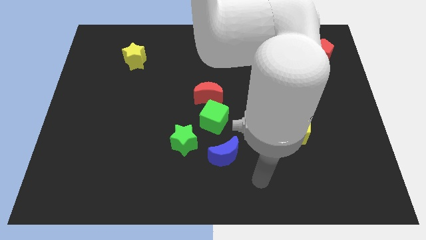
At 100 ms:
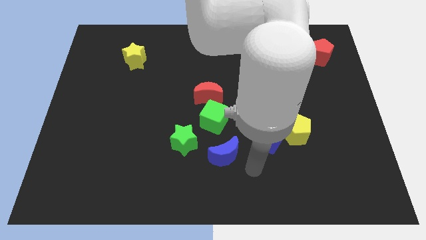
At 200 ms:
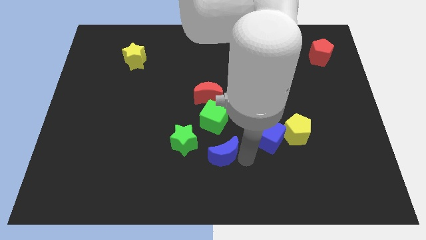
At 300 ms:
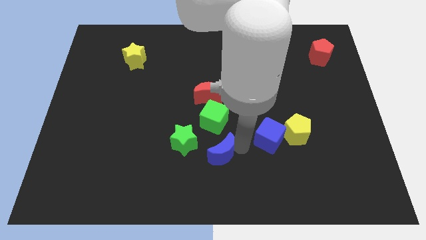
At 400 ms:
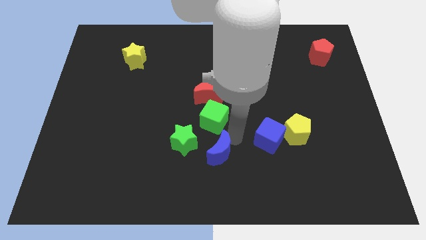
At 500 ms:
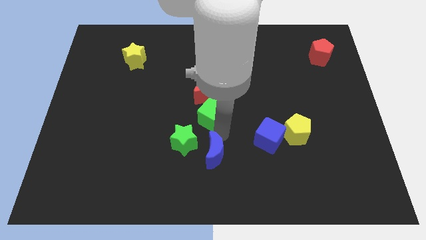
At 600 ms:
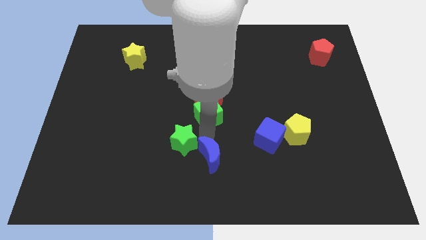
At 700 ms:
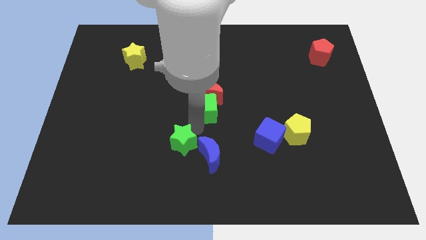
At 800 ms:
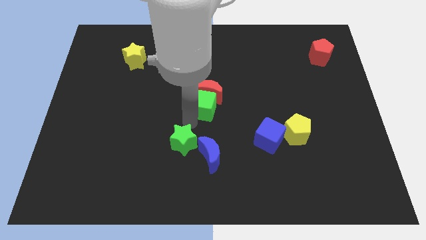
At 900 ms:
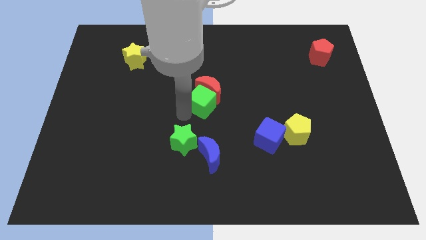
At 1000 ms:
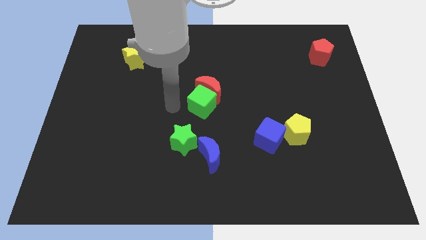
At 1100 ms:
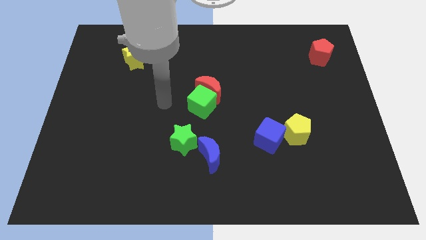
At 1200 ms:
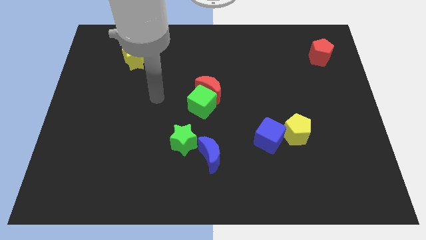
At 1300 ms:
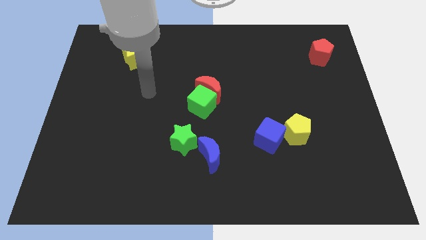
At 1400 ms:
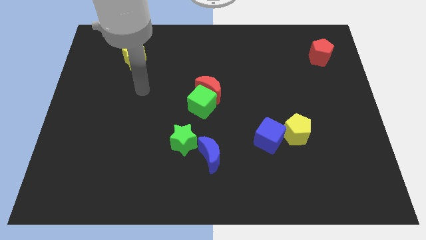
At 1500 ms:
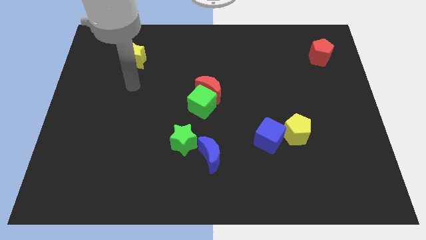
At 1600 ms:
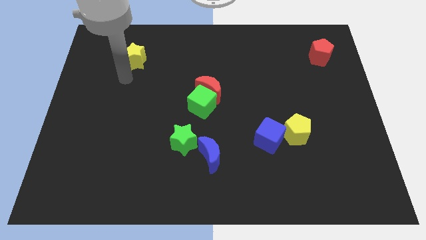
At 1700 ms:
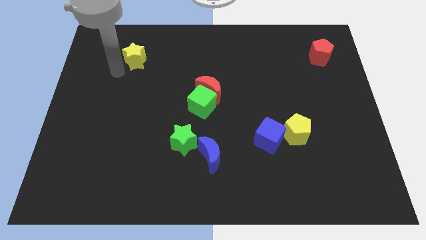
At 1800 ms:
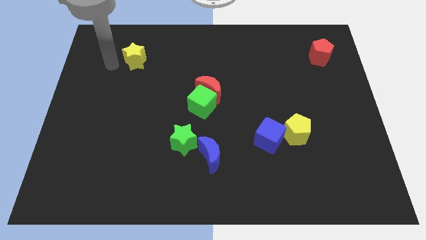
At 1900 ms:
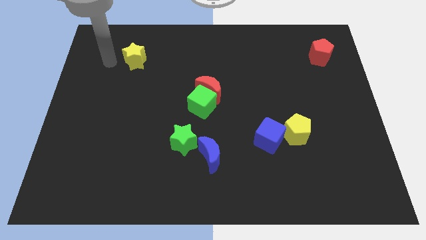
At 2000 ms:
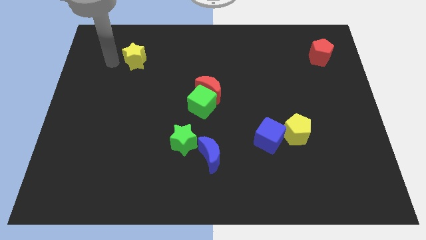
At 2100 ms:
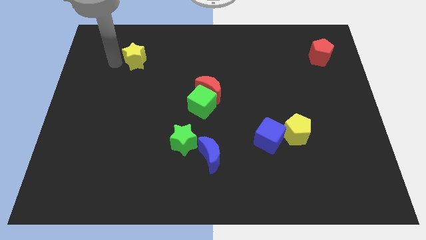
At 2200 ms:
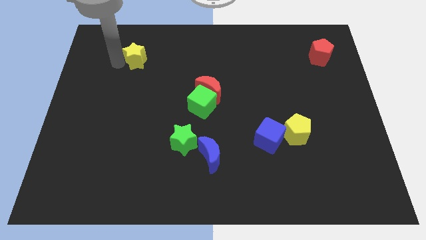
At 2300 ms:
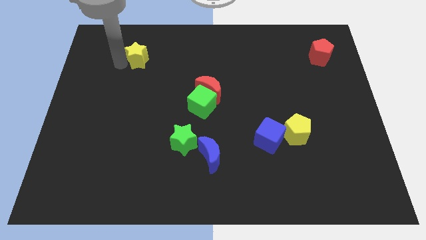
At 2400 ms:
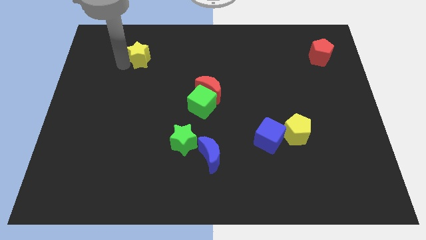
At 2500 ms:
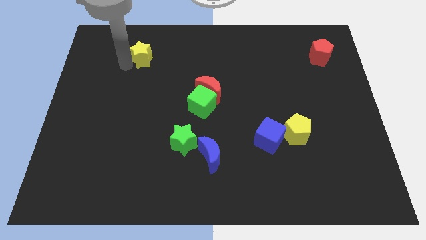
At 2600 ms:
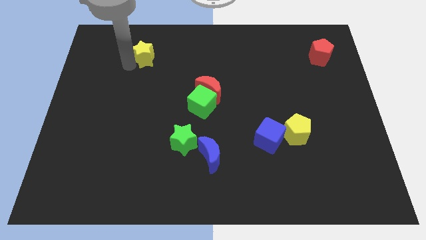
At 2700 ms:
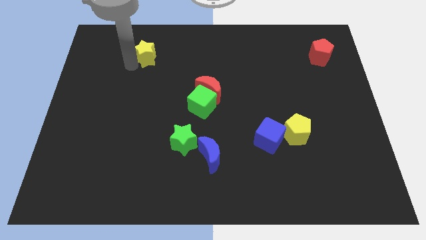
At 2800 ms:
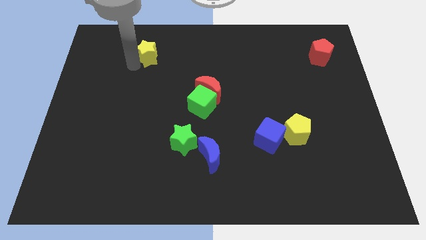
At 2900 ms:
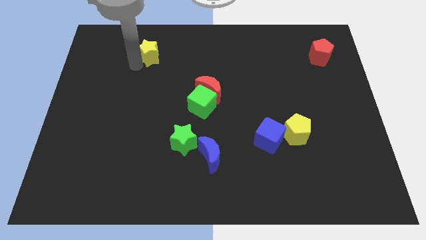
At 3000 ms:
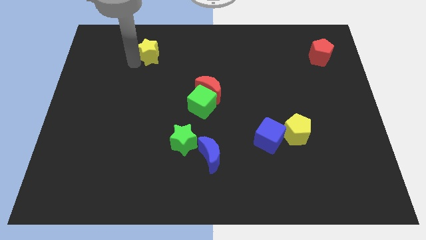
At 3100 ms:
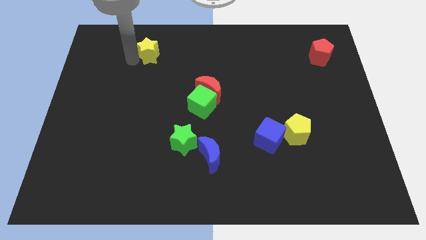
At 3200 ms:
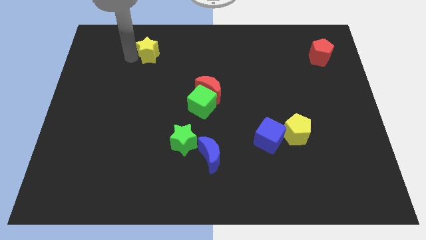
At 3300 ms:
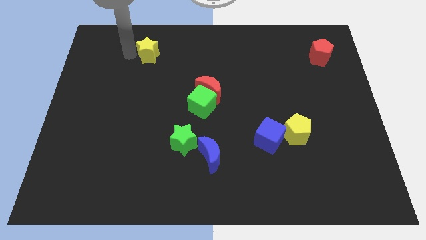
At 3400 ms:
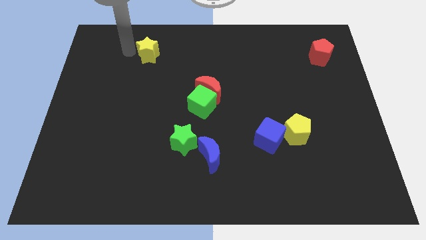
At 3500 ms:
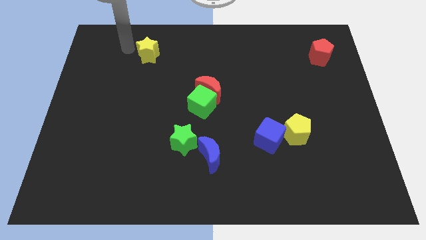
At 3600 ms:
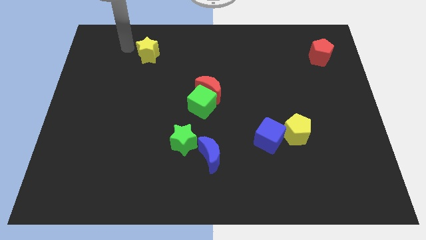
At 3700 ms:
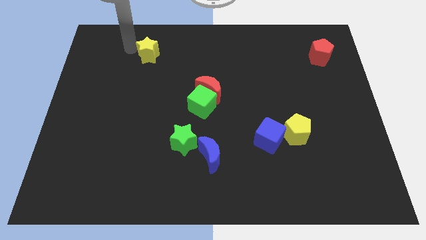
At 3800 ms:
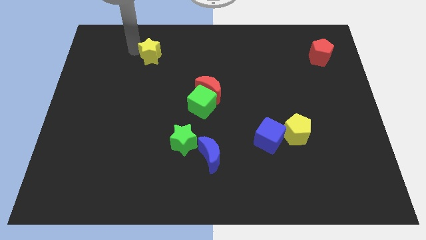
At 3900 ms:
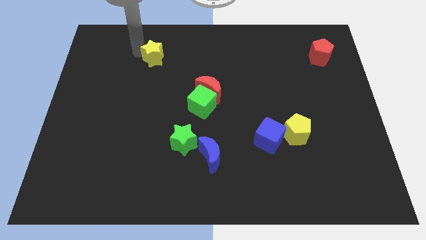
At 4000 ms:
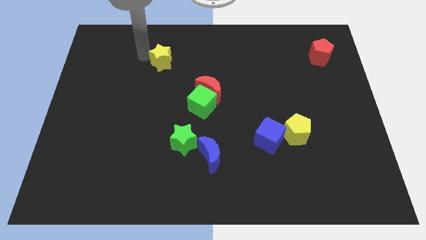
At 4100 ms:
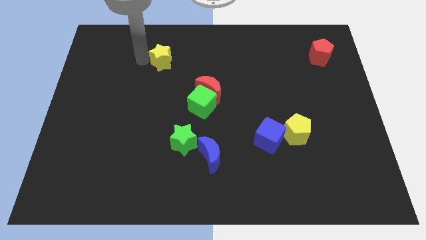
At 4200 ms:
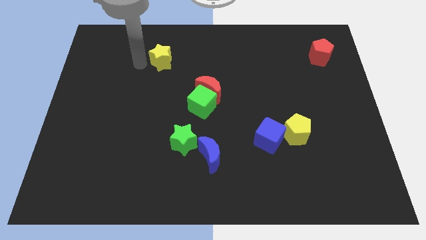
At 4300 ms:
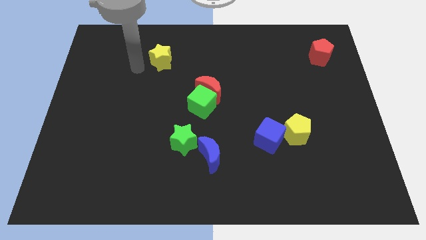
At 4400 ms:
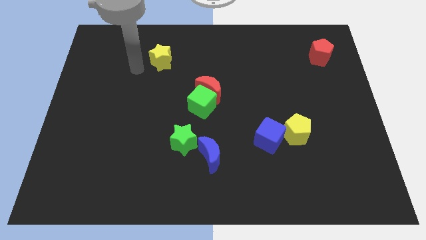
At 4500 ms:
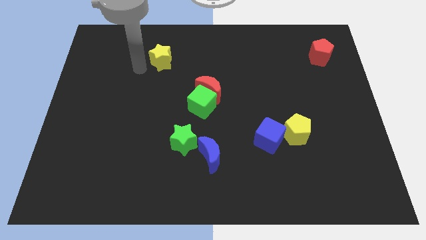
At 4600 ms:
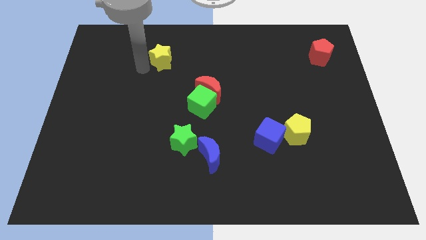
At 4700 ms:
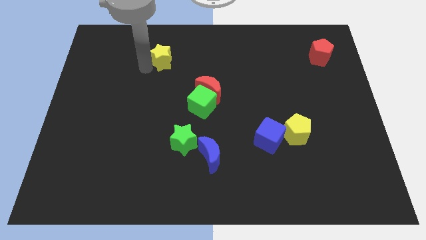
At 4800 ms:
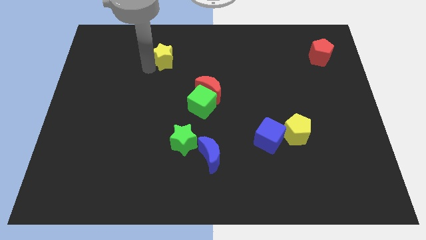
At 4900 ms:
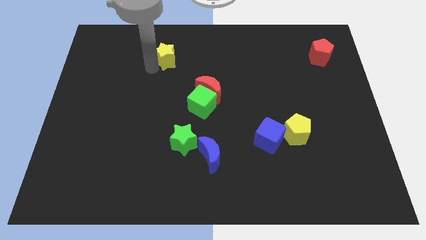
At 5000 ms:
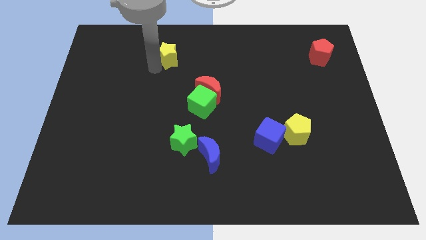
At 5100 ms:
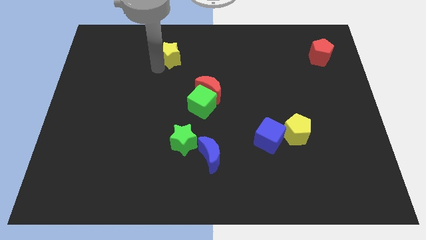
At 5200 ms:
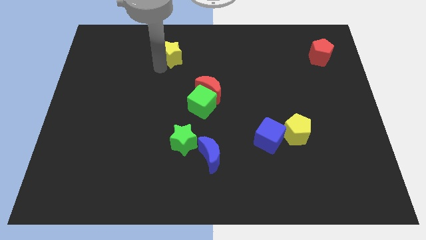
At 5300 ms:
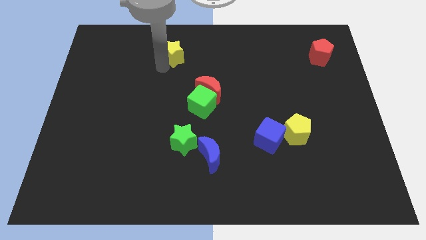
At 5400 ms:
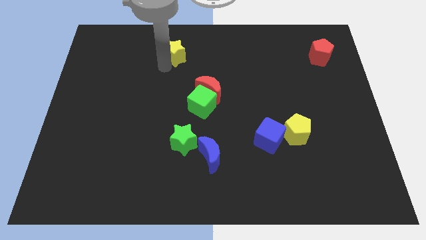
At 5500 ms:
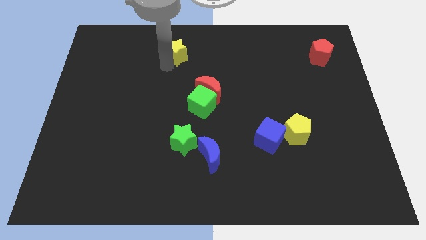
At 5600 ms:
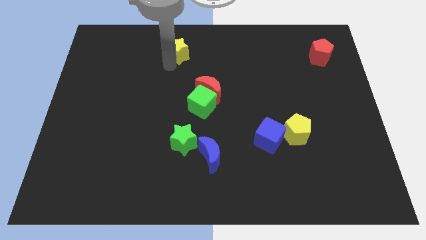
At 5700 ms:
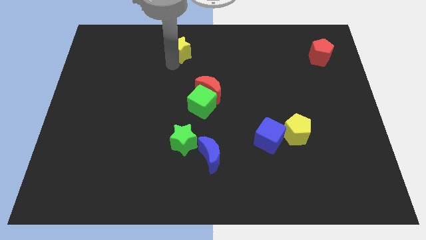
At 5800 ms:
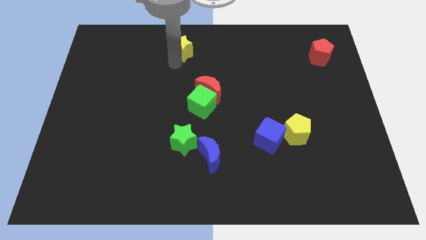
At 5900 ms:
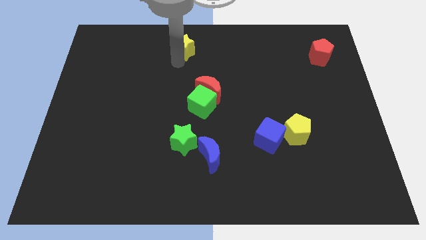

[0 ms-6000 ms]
slide the yellow star to the top side
